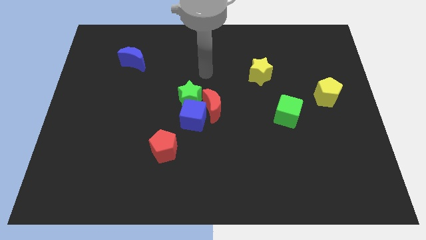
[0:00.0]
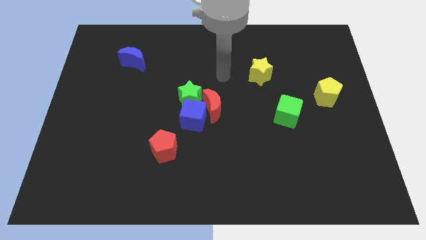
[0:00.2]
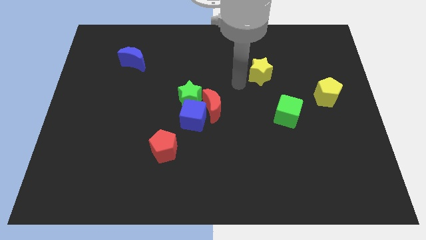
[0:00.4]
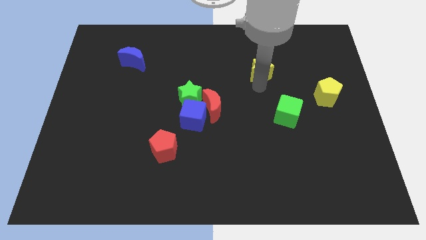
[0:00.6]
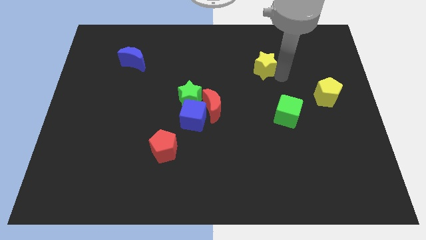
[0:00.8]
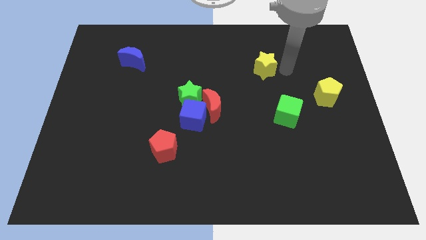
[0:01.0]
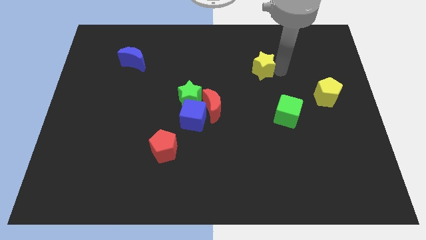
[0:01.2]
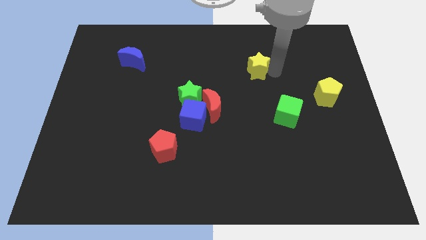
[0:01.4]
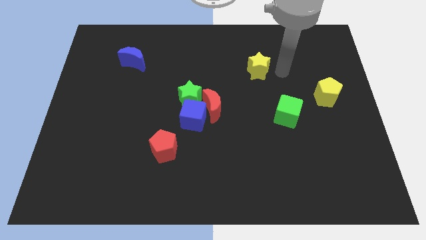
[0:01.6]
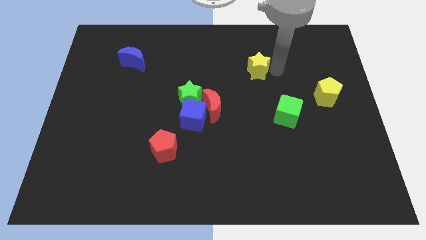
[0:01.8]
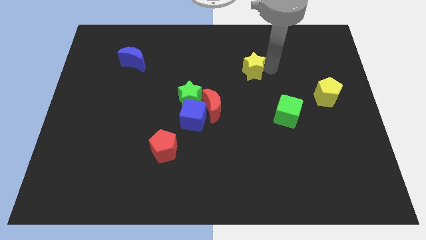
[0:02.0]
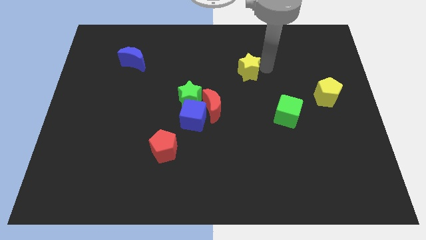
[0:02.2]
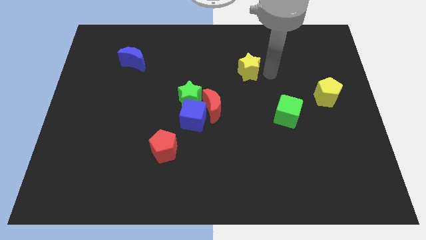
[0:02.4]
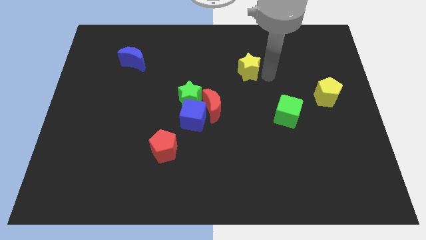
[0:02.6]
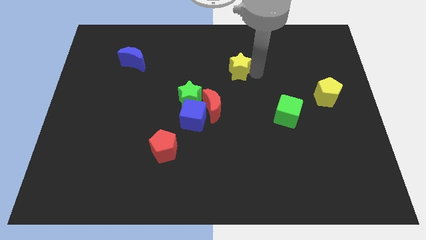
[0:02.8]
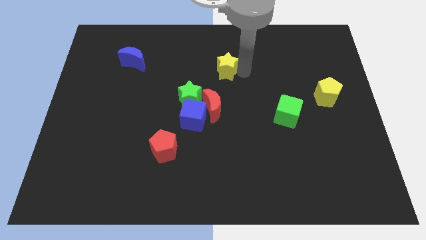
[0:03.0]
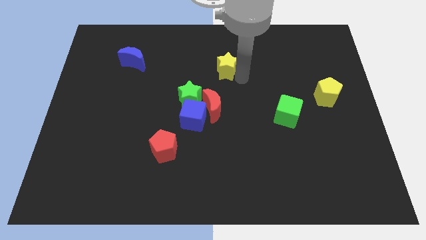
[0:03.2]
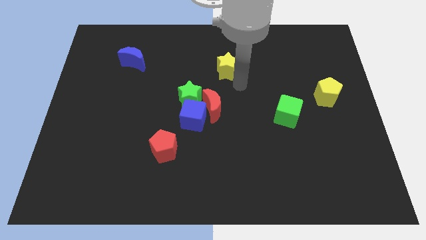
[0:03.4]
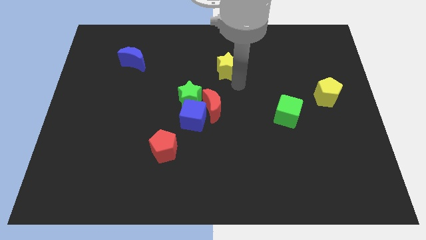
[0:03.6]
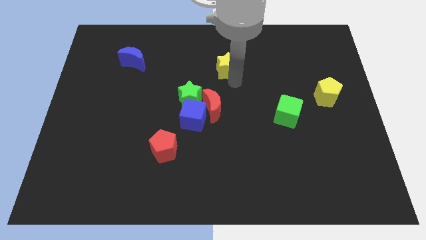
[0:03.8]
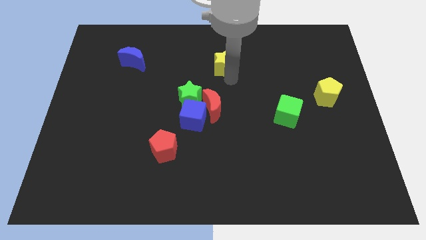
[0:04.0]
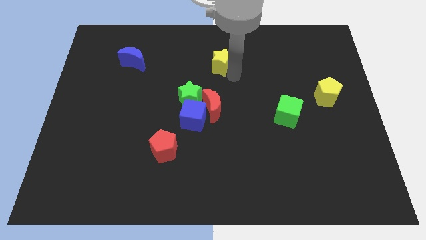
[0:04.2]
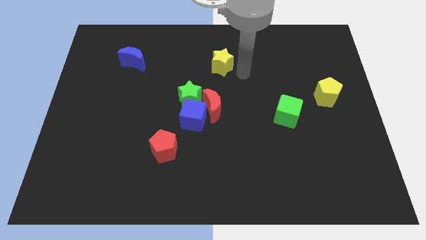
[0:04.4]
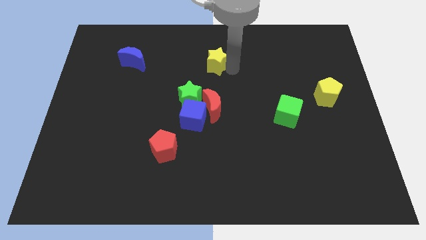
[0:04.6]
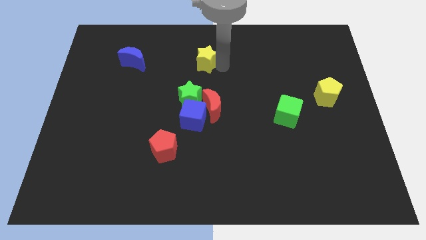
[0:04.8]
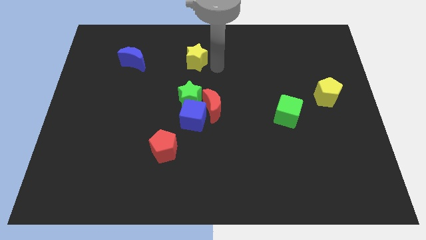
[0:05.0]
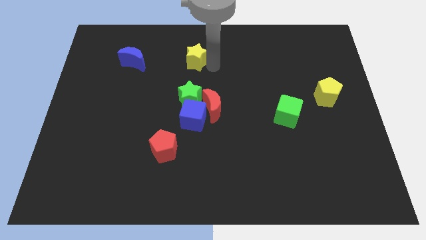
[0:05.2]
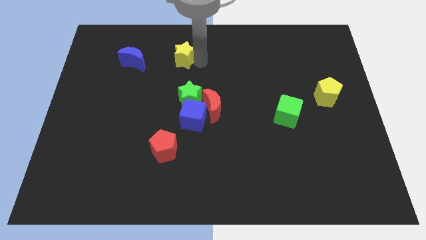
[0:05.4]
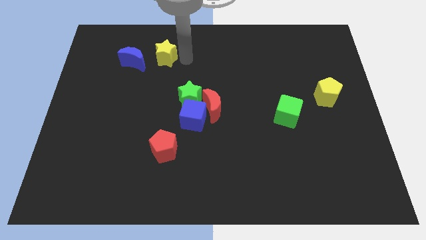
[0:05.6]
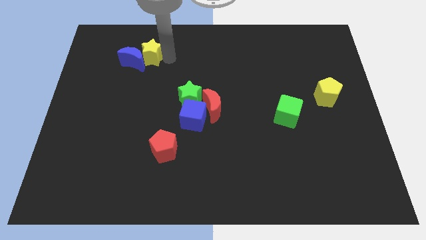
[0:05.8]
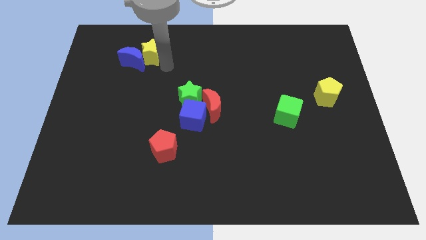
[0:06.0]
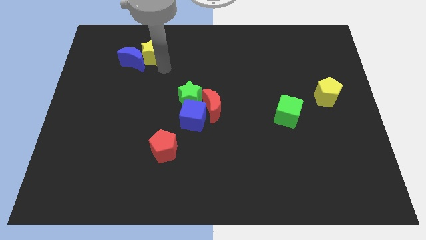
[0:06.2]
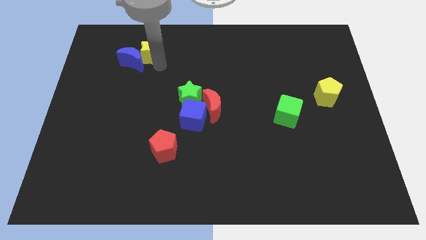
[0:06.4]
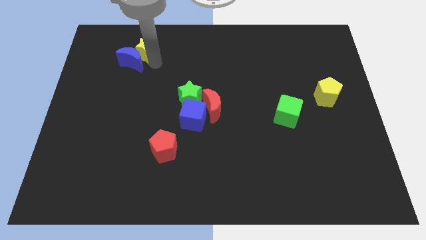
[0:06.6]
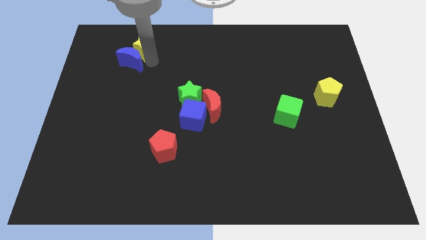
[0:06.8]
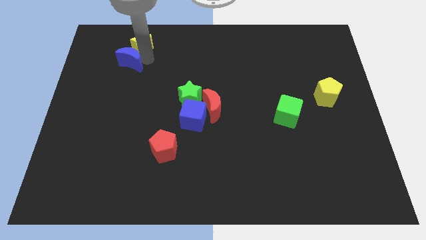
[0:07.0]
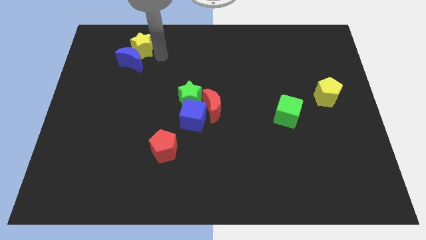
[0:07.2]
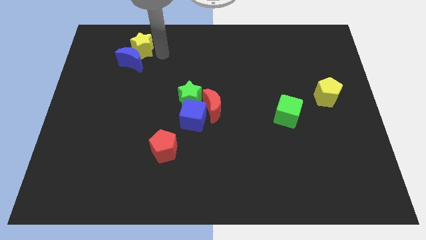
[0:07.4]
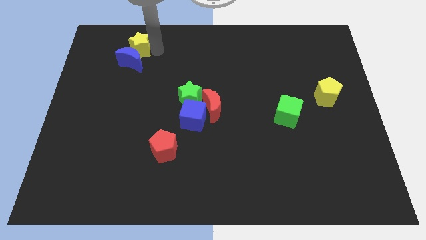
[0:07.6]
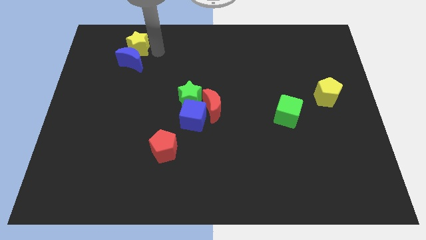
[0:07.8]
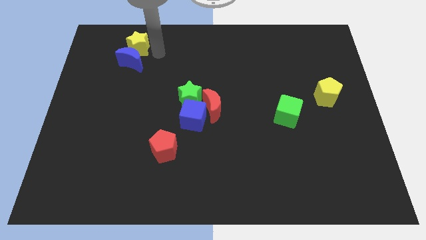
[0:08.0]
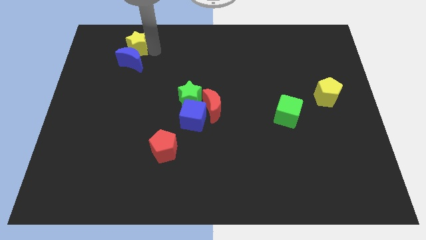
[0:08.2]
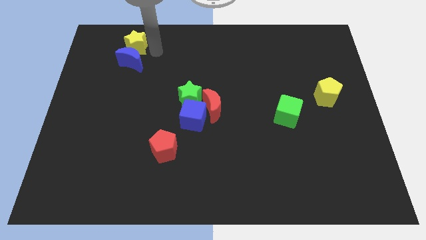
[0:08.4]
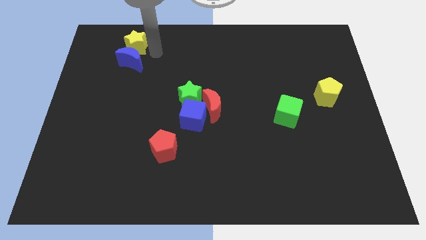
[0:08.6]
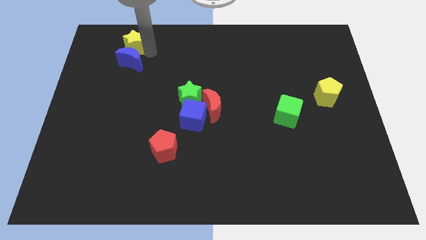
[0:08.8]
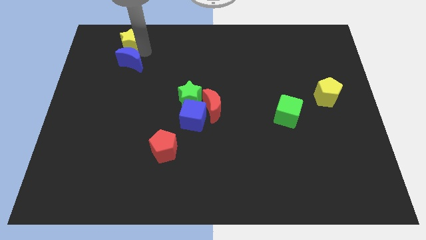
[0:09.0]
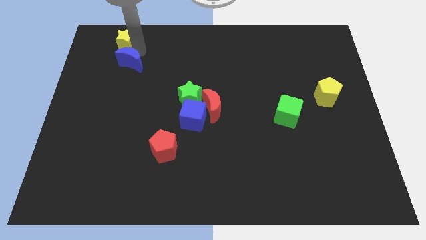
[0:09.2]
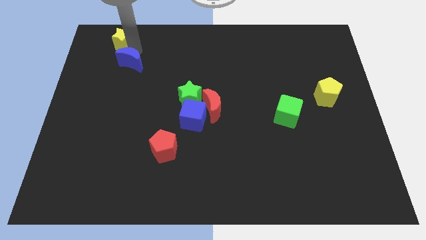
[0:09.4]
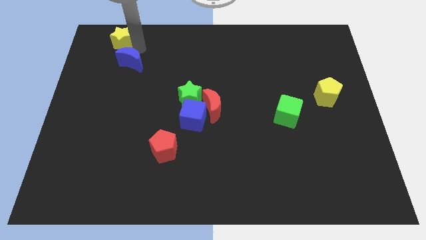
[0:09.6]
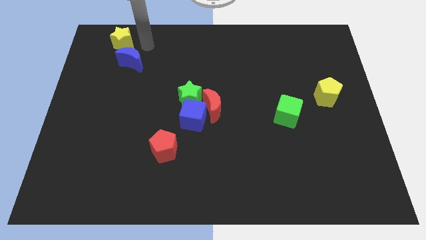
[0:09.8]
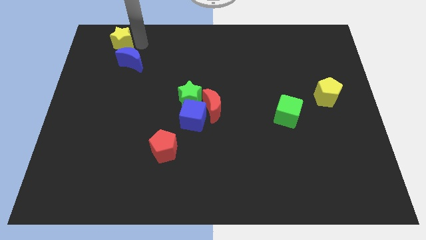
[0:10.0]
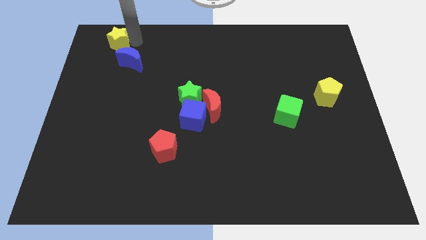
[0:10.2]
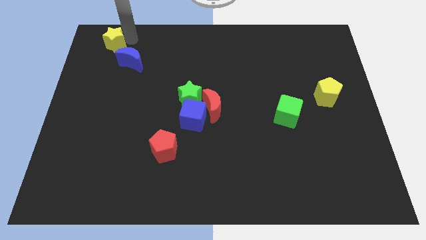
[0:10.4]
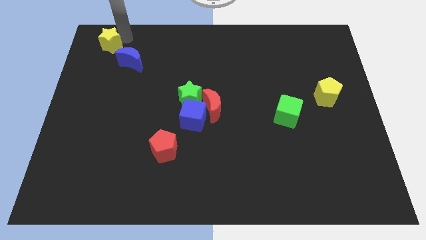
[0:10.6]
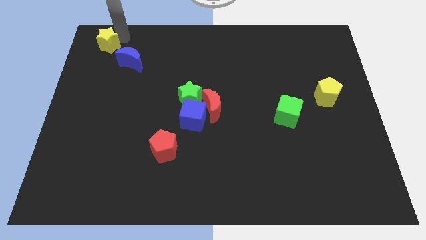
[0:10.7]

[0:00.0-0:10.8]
put the yellow star to the top left

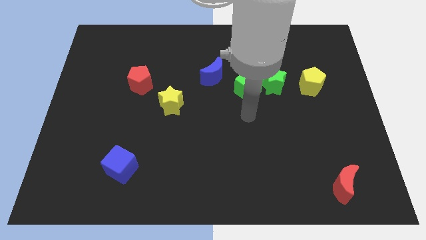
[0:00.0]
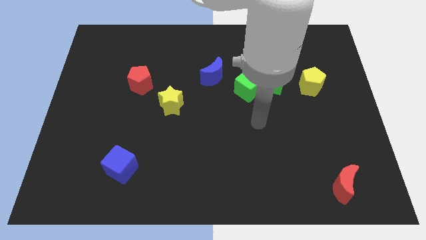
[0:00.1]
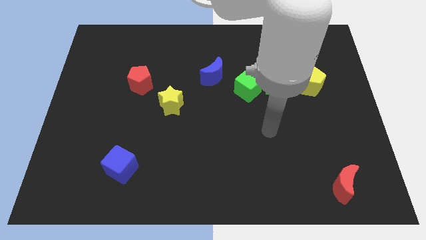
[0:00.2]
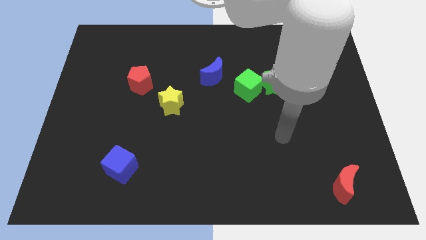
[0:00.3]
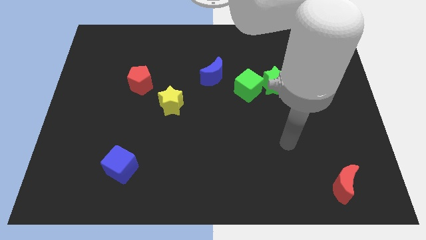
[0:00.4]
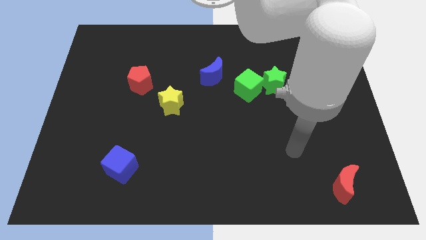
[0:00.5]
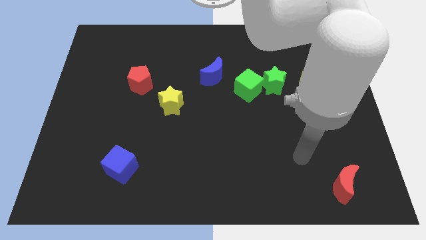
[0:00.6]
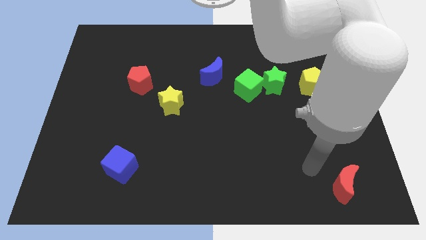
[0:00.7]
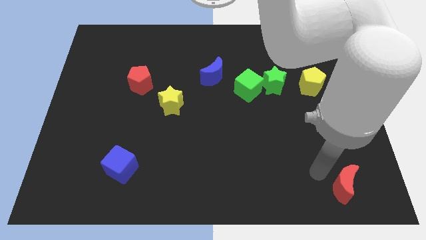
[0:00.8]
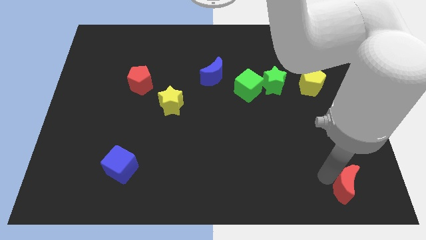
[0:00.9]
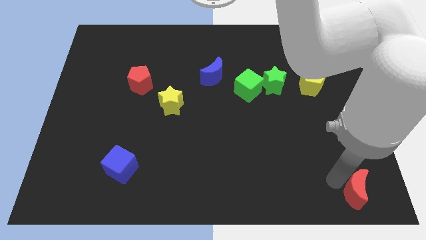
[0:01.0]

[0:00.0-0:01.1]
move the red moon to the bottom right corner
